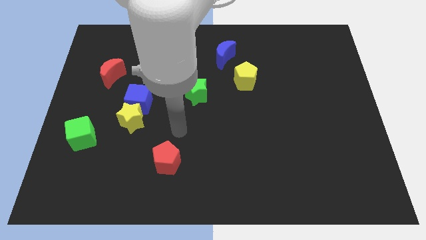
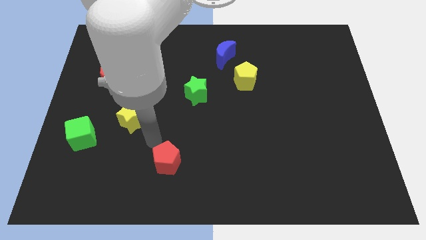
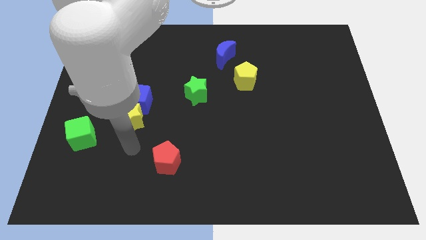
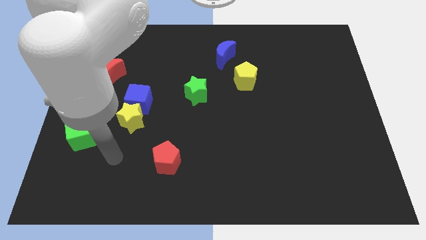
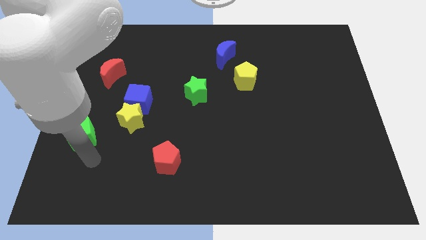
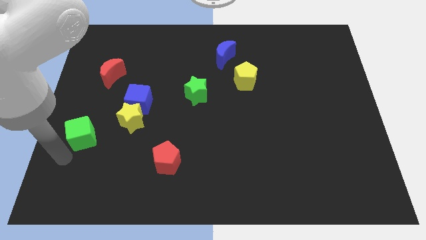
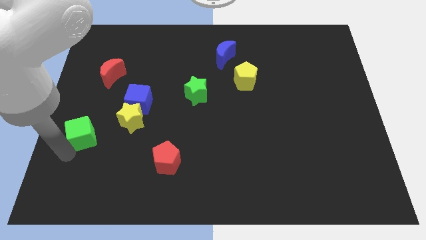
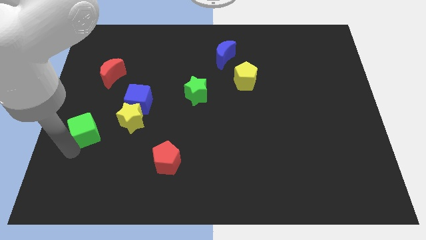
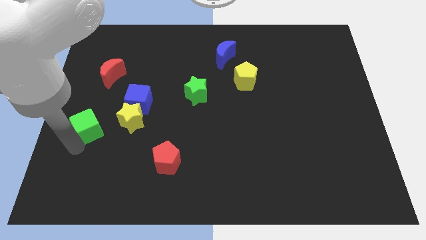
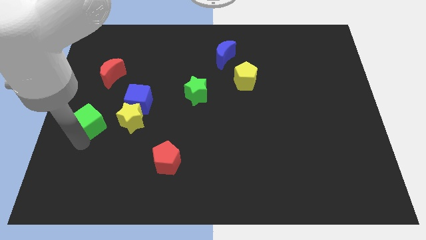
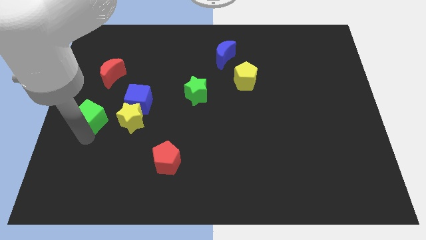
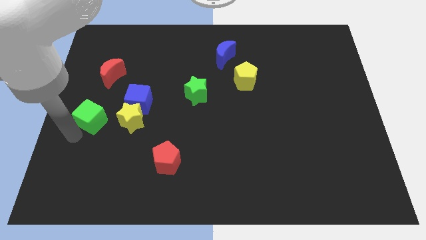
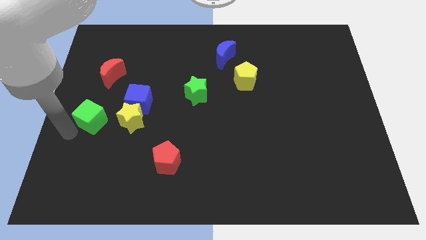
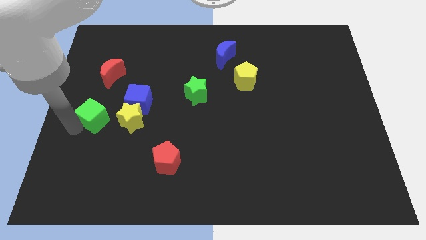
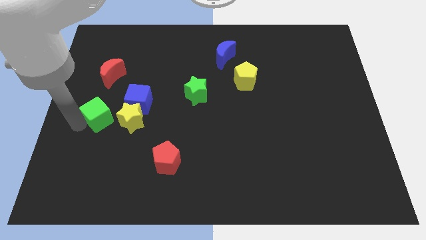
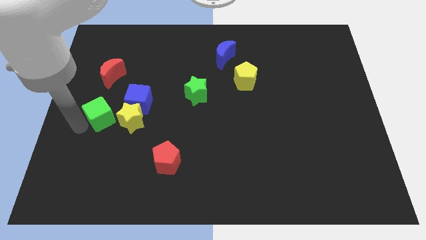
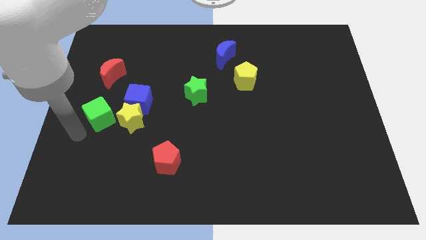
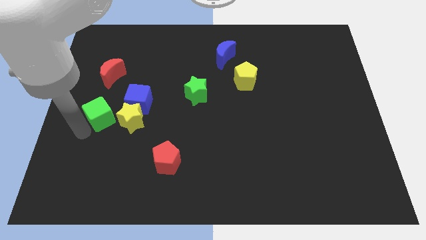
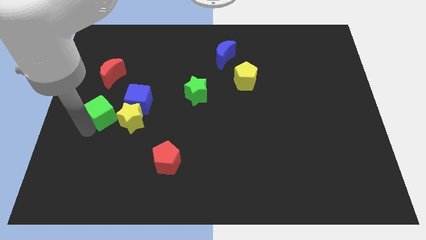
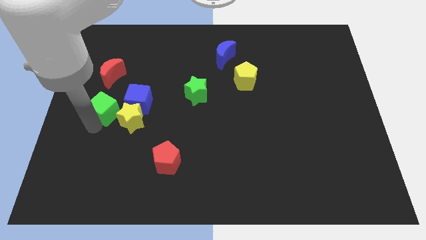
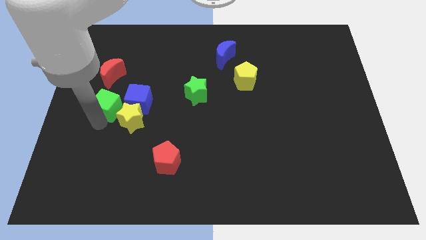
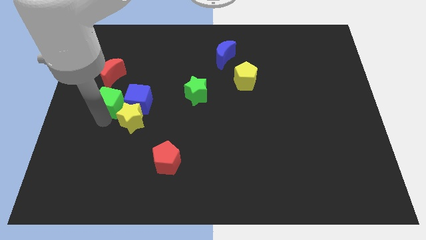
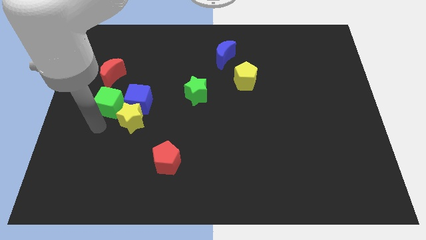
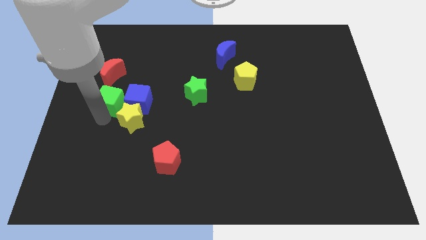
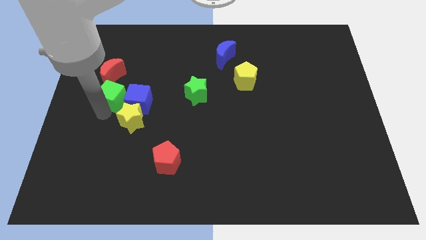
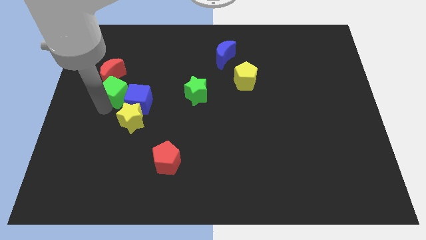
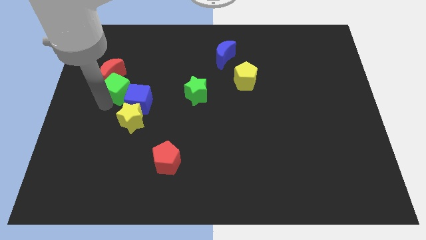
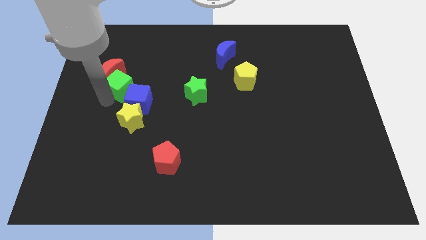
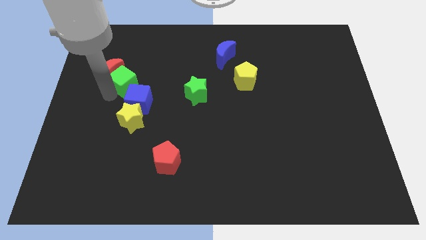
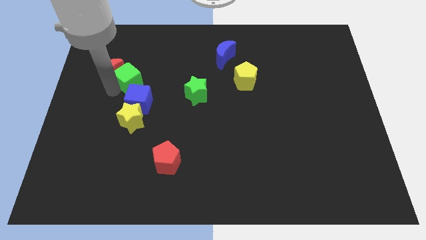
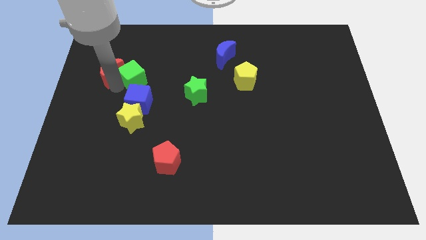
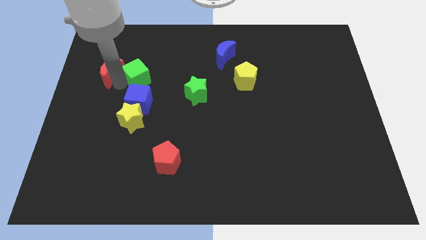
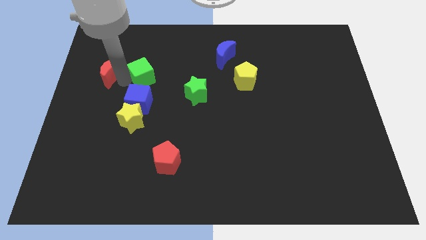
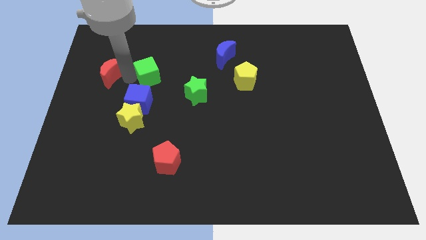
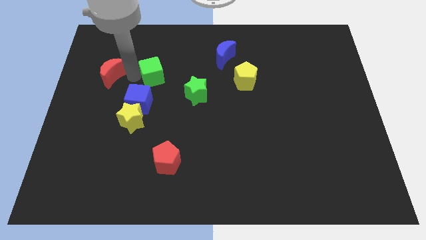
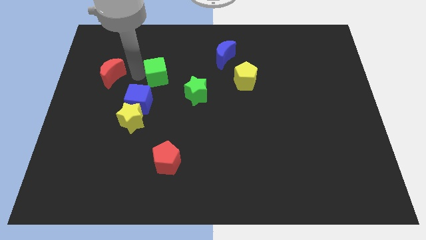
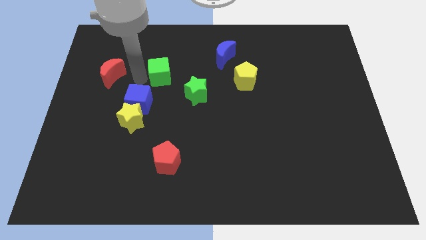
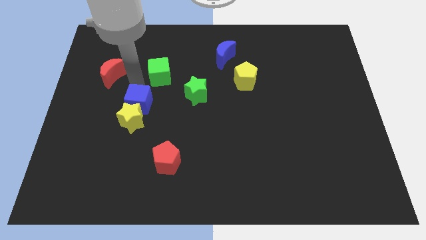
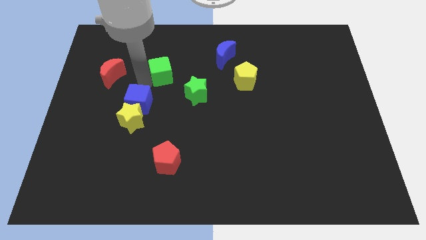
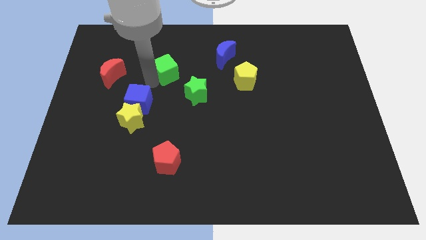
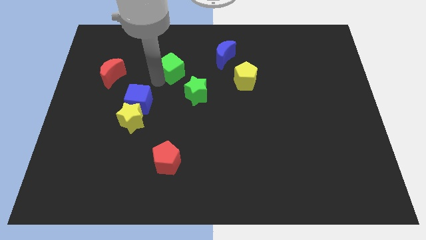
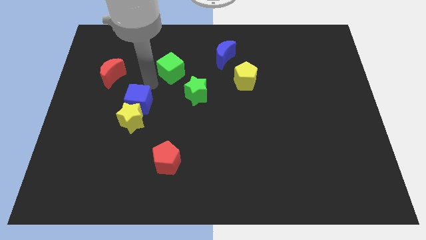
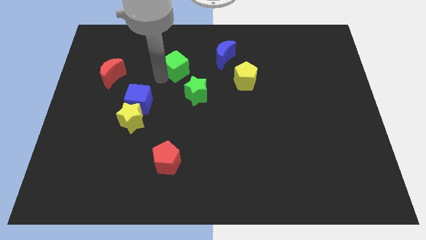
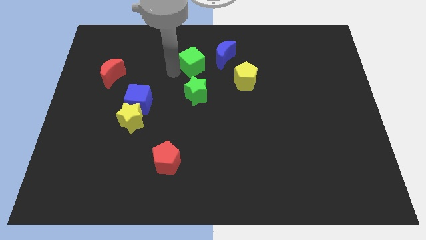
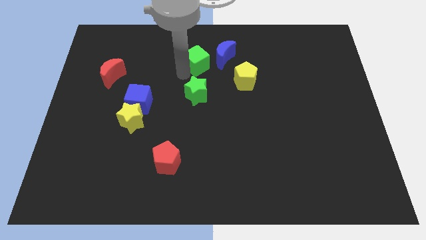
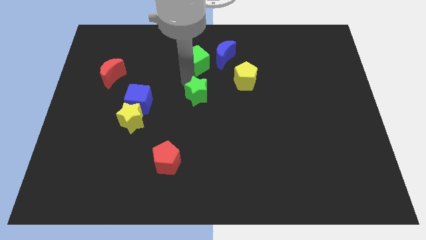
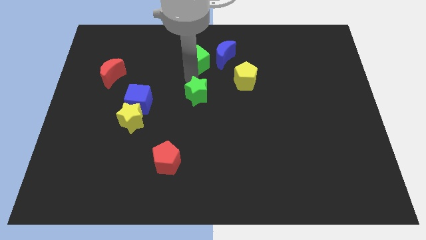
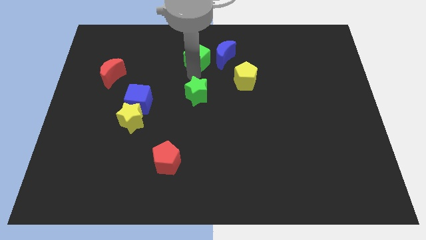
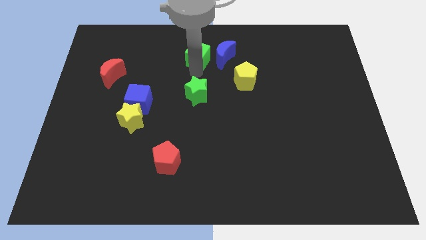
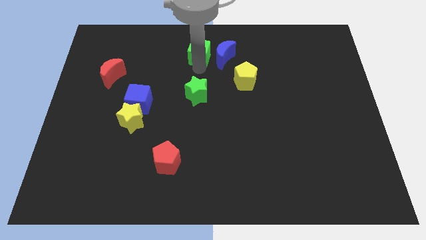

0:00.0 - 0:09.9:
put the green cube to the top side

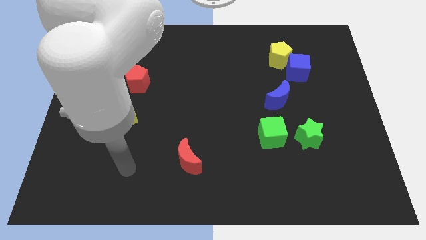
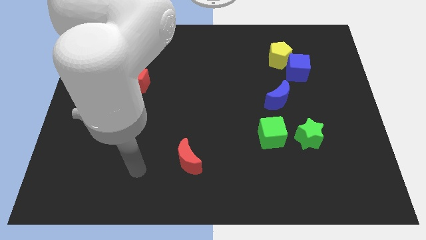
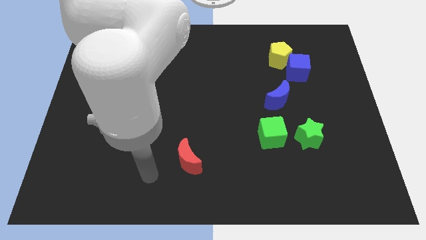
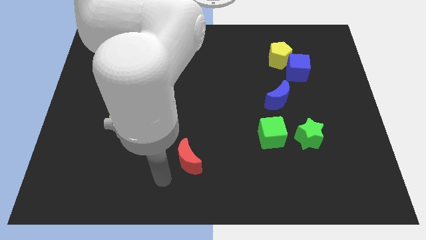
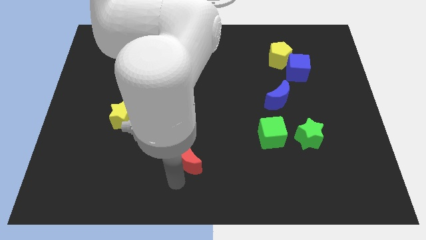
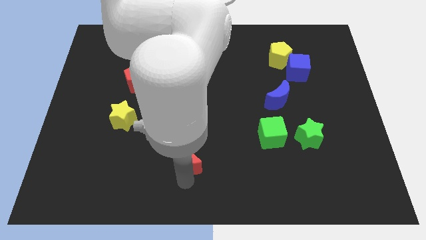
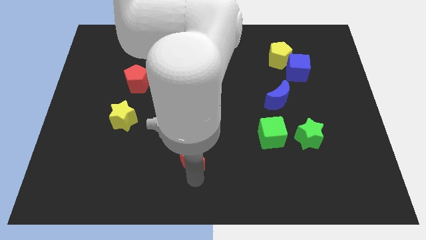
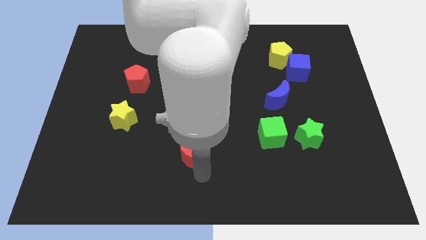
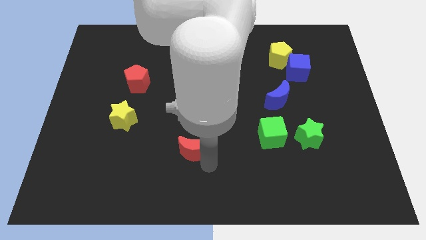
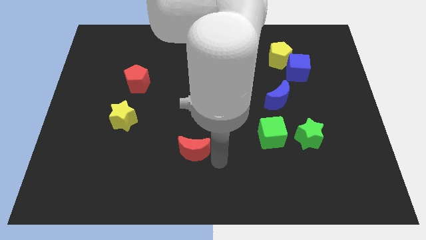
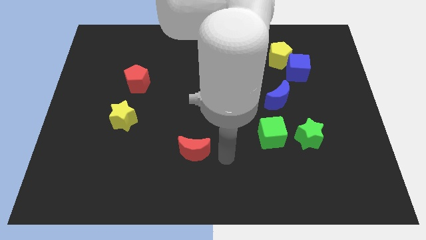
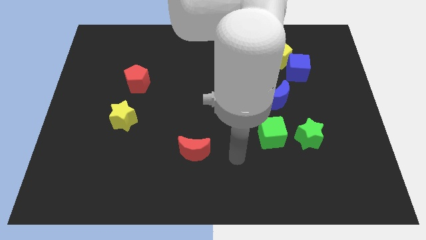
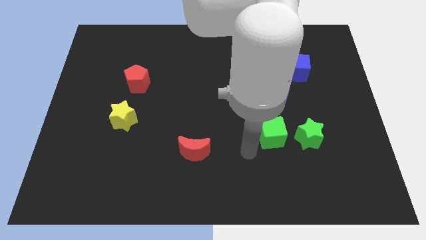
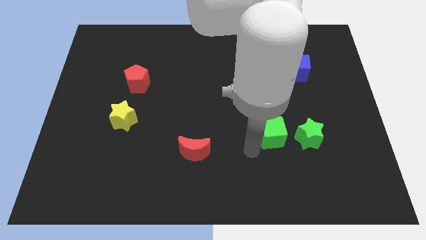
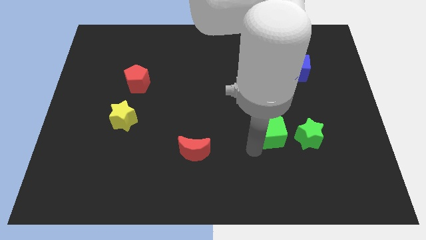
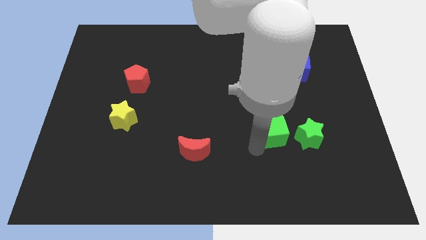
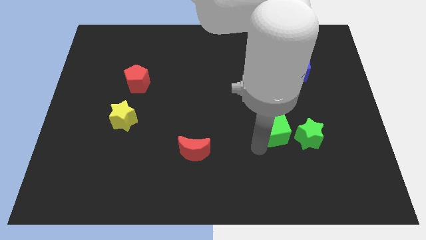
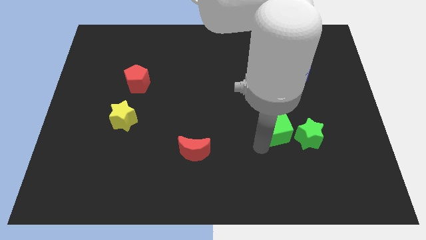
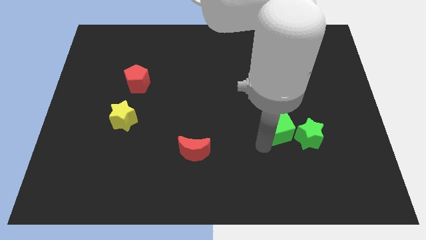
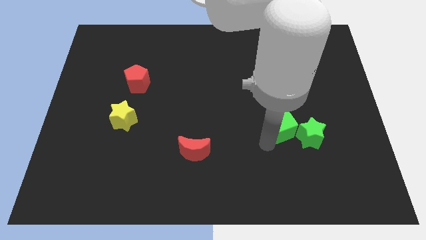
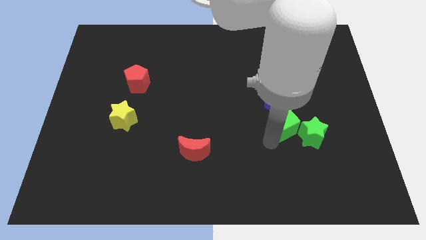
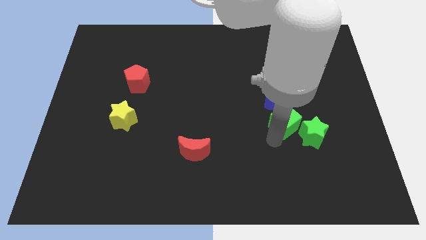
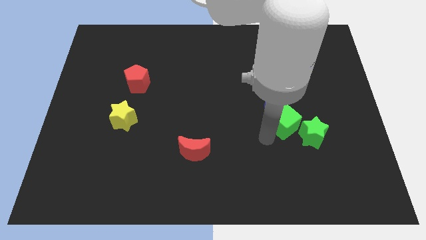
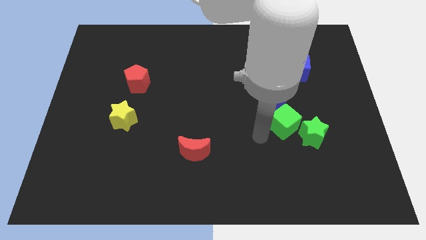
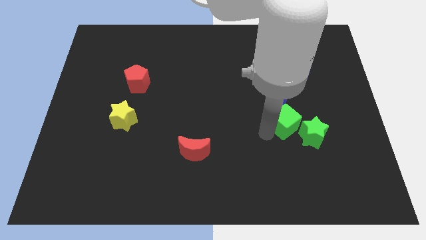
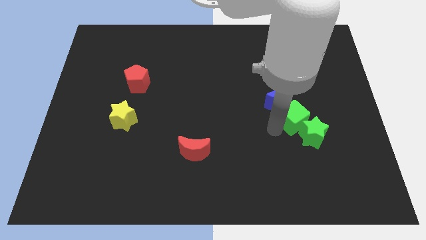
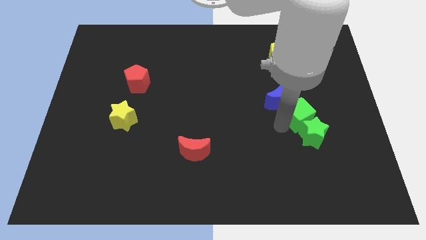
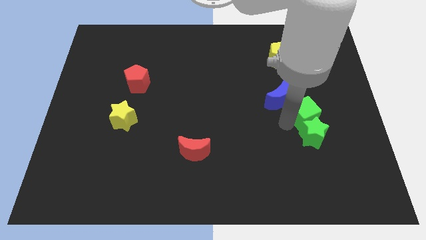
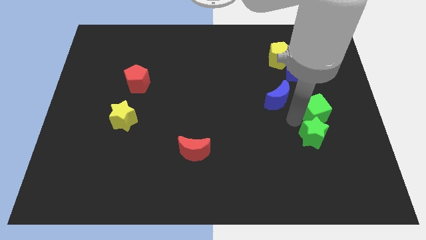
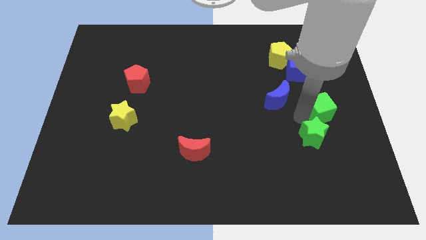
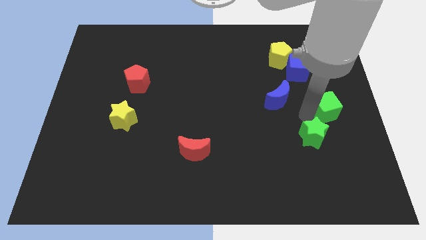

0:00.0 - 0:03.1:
slide the green cube to the center right
